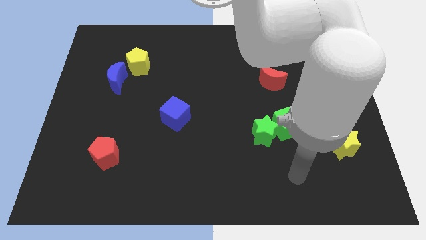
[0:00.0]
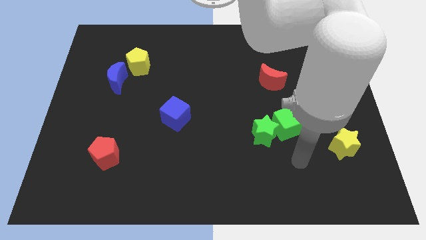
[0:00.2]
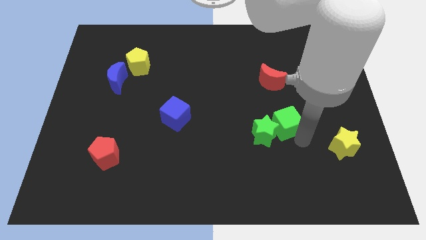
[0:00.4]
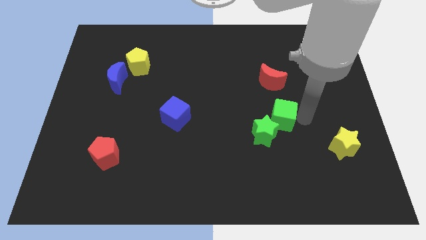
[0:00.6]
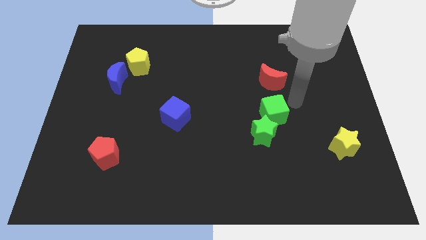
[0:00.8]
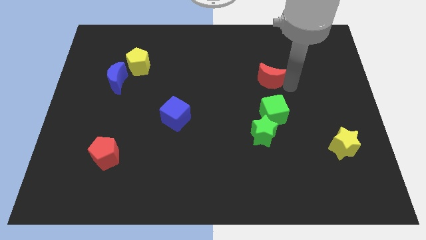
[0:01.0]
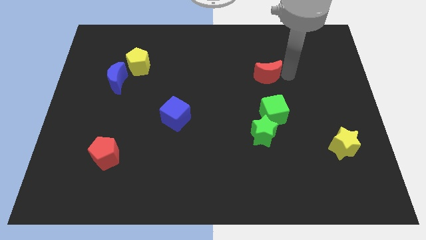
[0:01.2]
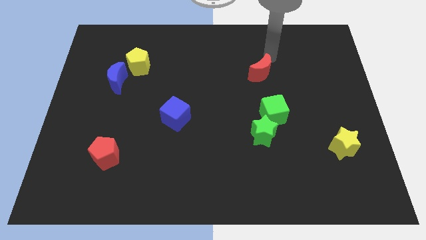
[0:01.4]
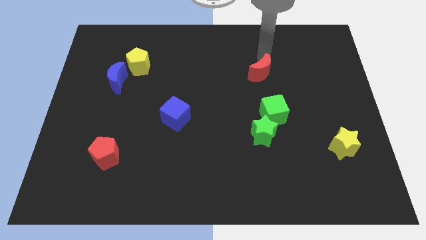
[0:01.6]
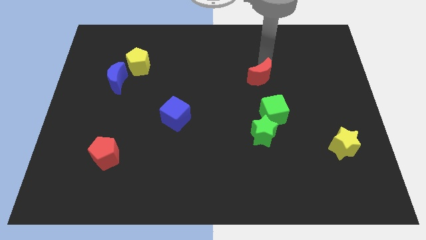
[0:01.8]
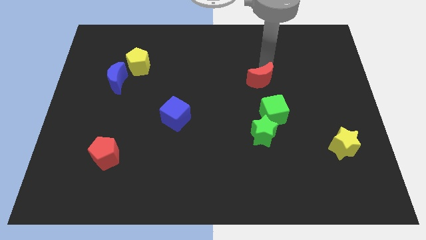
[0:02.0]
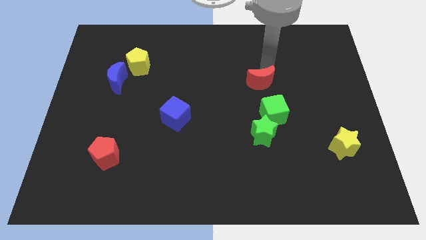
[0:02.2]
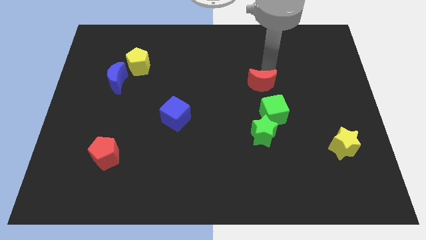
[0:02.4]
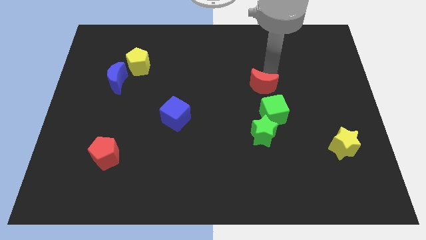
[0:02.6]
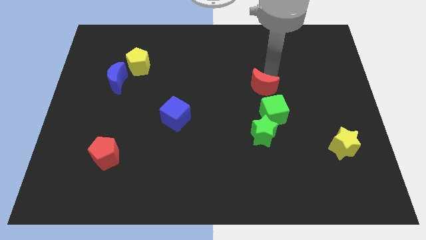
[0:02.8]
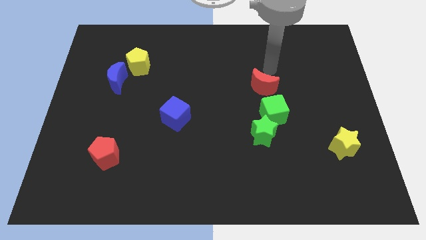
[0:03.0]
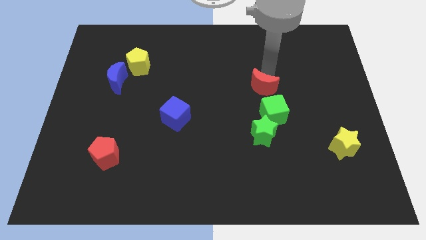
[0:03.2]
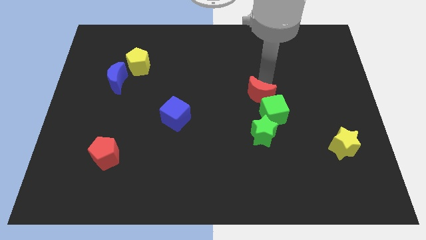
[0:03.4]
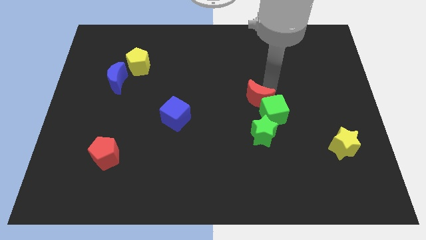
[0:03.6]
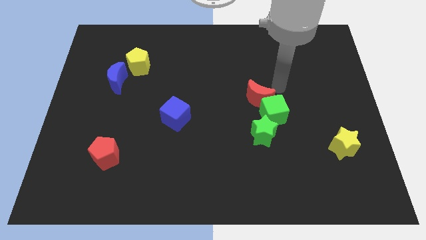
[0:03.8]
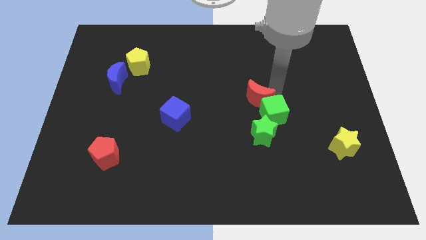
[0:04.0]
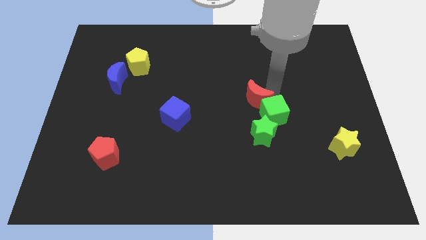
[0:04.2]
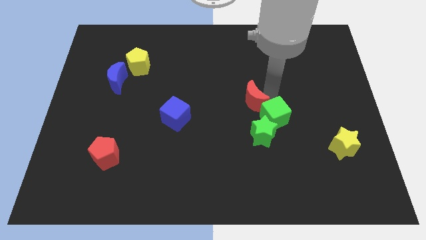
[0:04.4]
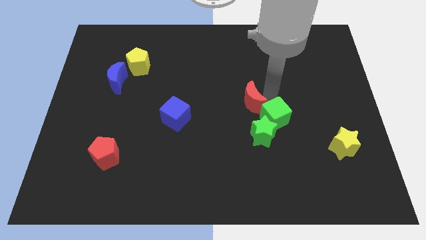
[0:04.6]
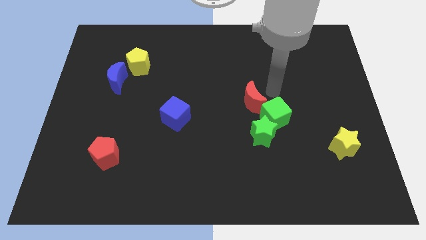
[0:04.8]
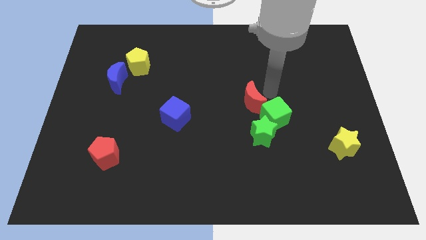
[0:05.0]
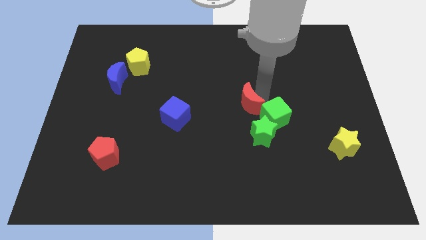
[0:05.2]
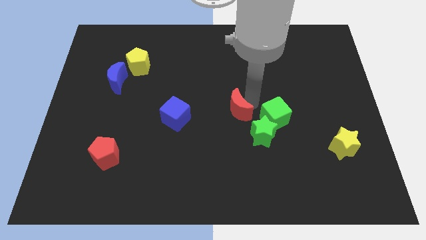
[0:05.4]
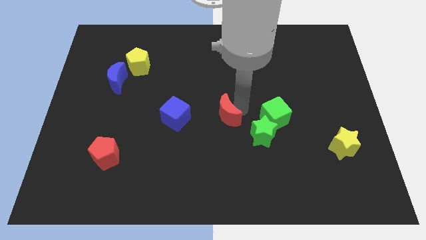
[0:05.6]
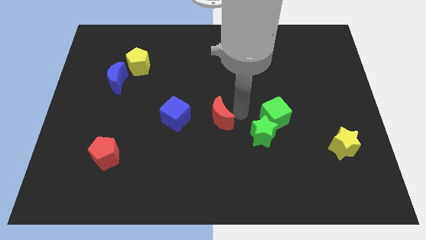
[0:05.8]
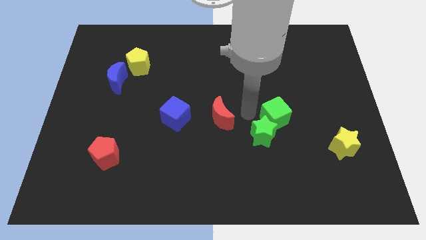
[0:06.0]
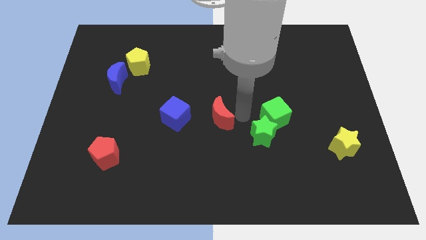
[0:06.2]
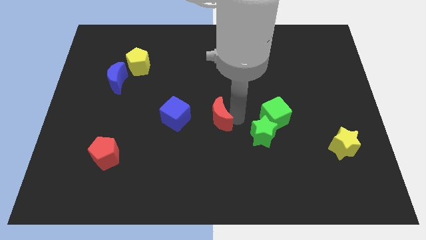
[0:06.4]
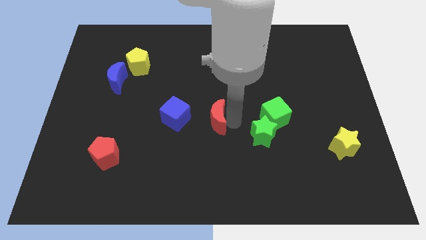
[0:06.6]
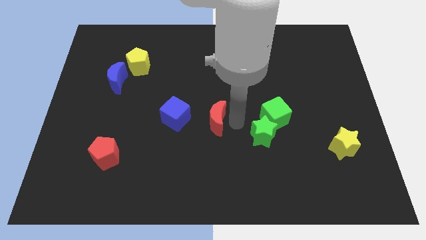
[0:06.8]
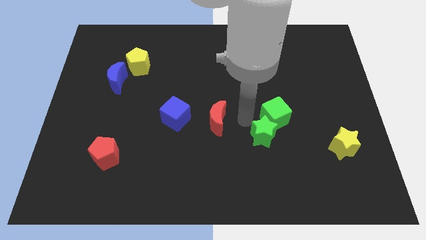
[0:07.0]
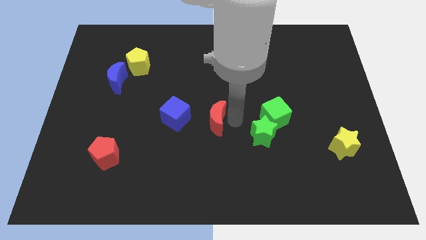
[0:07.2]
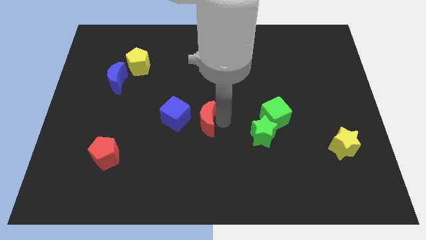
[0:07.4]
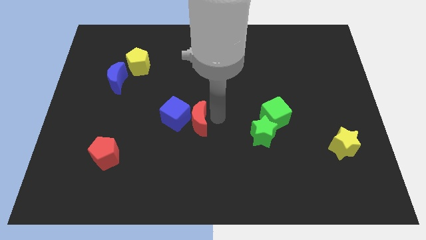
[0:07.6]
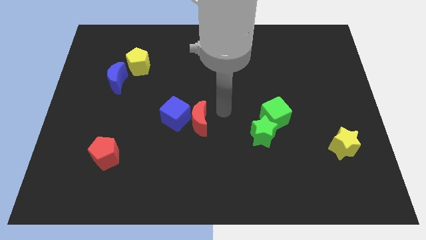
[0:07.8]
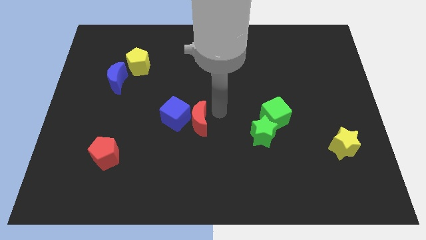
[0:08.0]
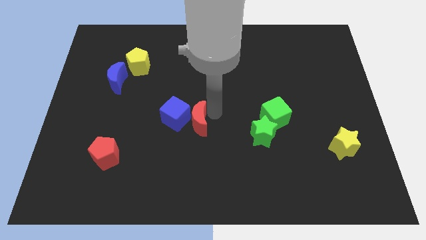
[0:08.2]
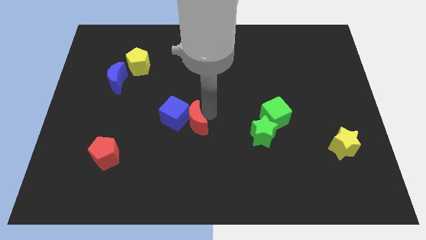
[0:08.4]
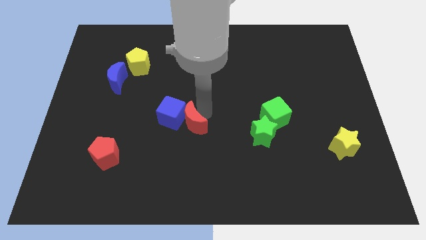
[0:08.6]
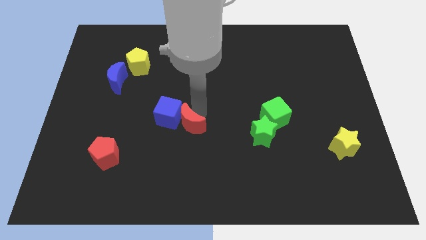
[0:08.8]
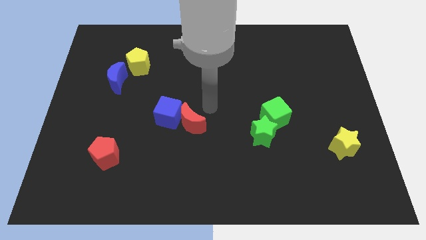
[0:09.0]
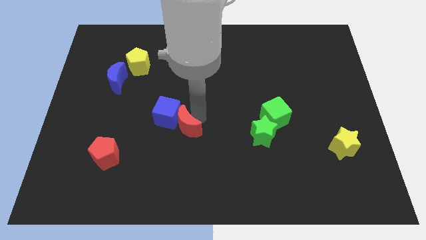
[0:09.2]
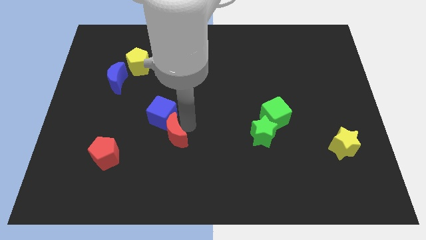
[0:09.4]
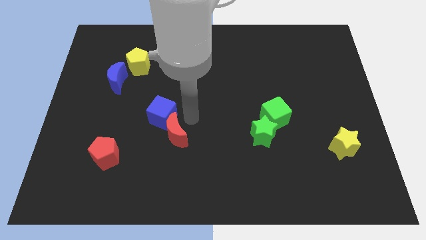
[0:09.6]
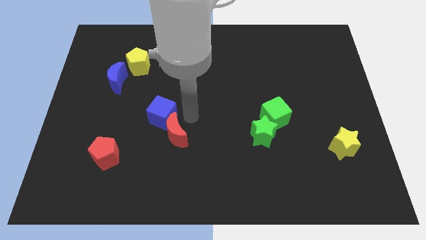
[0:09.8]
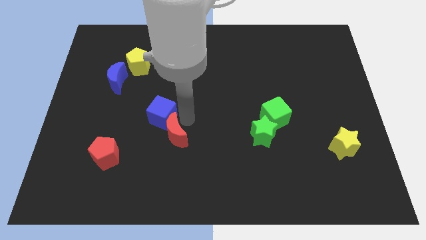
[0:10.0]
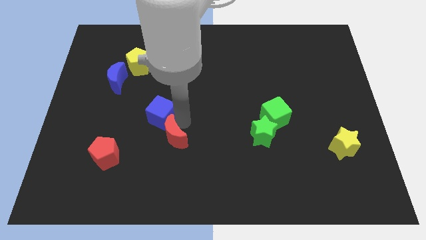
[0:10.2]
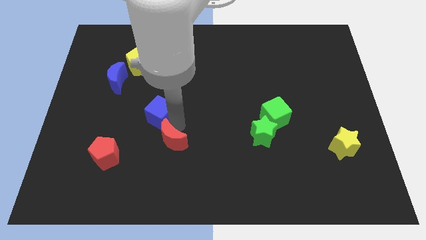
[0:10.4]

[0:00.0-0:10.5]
move the red moon to the right of the red pentagon

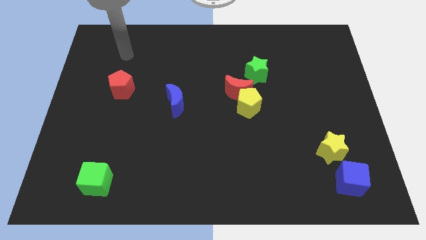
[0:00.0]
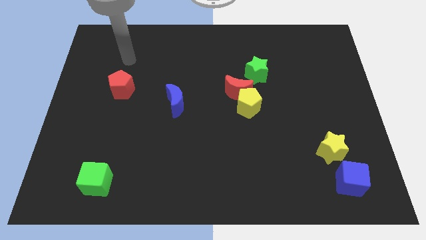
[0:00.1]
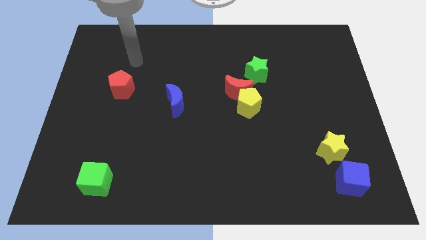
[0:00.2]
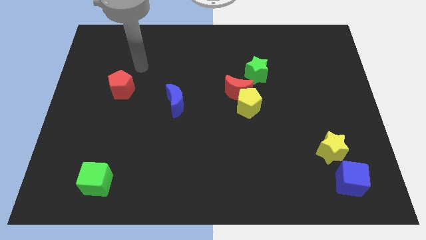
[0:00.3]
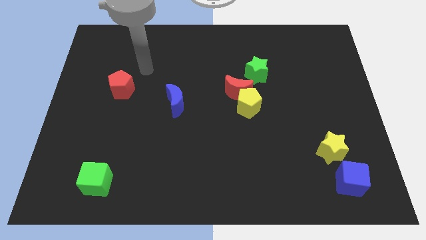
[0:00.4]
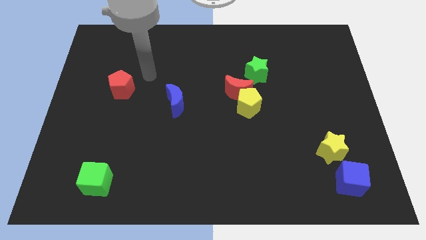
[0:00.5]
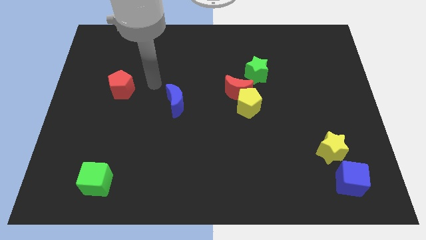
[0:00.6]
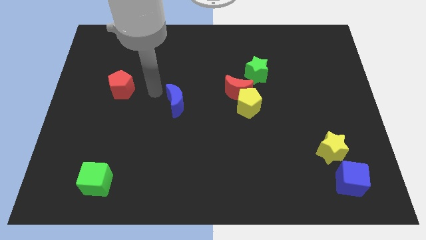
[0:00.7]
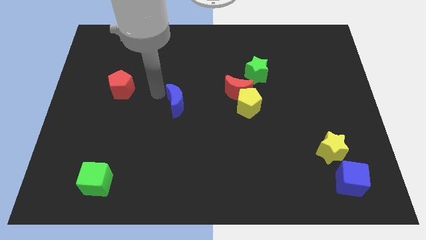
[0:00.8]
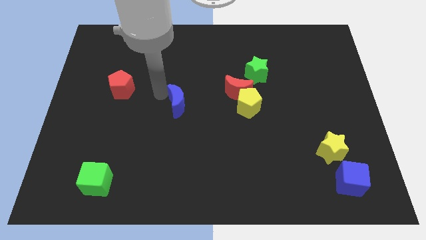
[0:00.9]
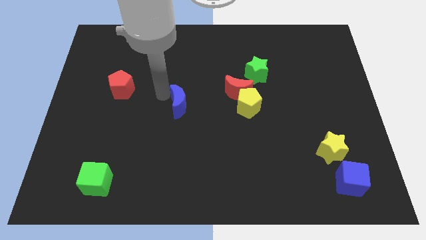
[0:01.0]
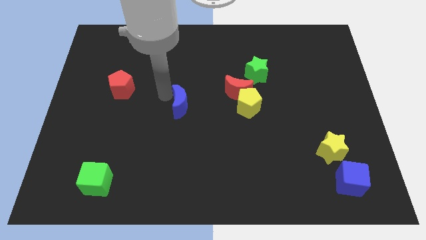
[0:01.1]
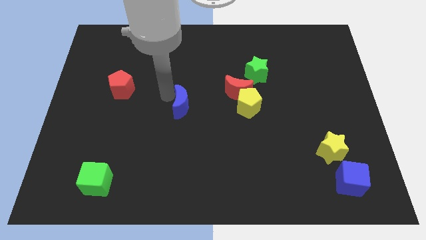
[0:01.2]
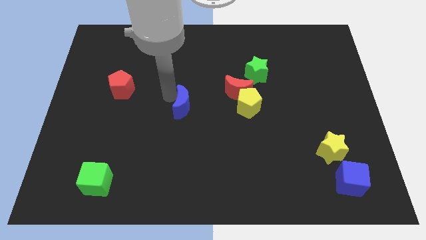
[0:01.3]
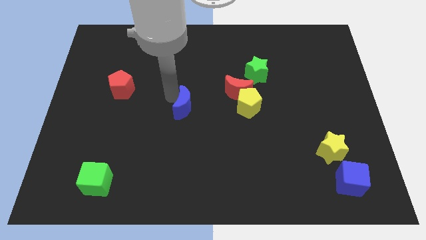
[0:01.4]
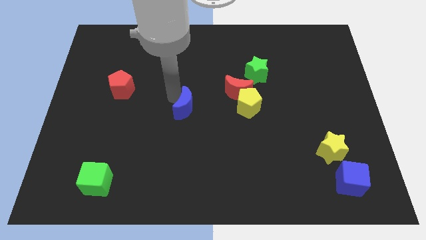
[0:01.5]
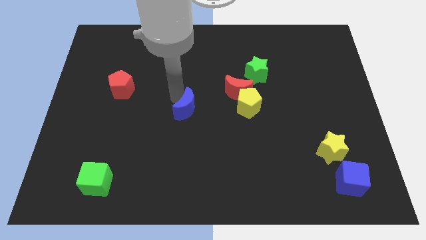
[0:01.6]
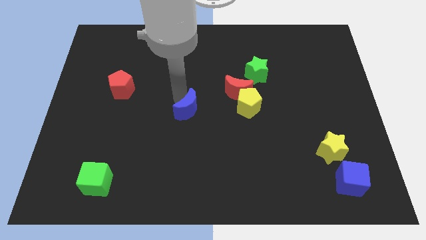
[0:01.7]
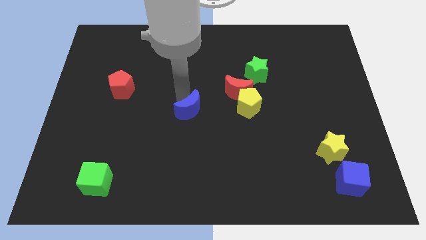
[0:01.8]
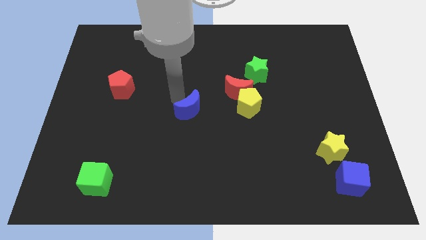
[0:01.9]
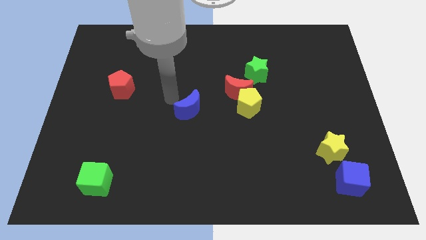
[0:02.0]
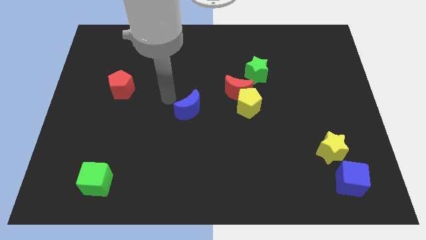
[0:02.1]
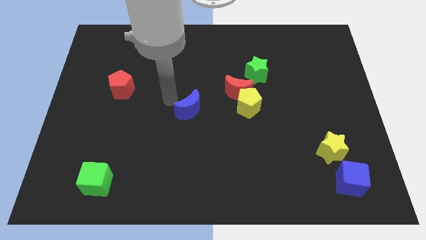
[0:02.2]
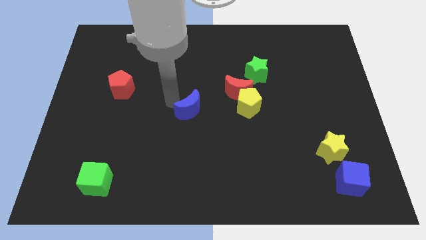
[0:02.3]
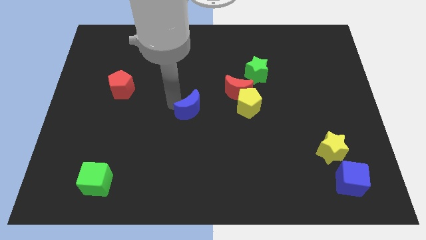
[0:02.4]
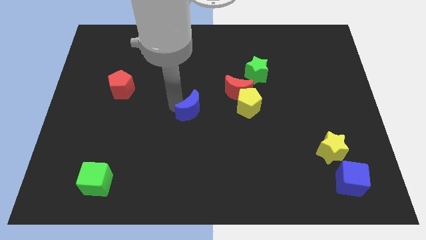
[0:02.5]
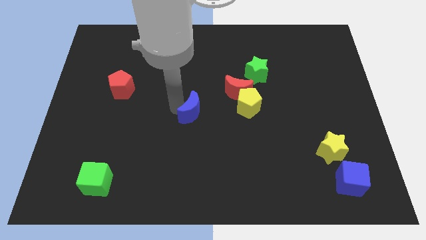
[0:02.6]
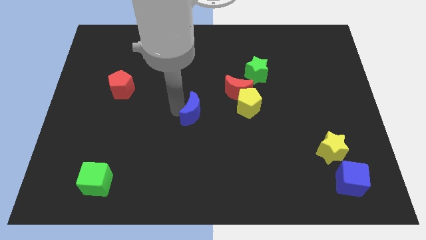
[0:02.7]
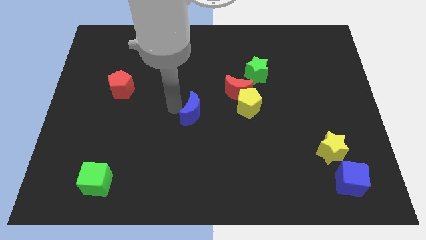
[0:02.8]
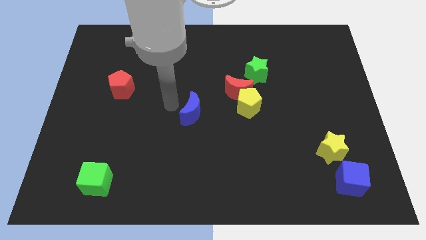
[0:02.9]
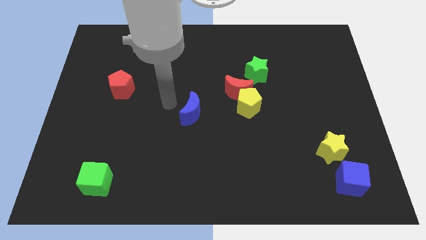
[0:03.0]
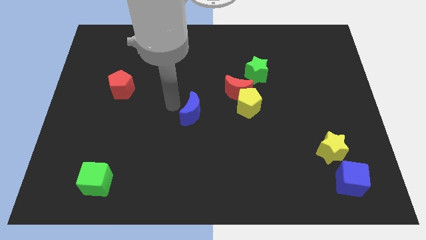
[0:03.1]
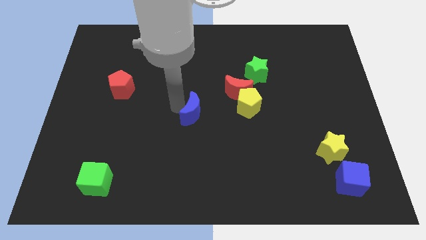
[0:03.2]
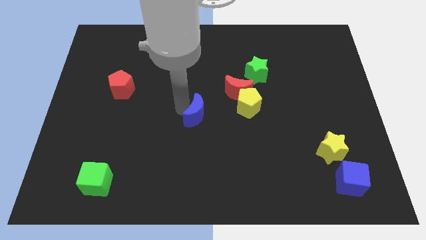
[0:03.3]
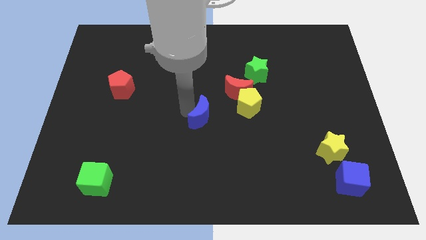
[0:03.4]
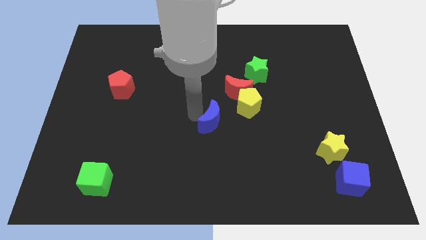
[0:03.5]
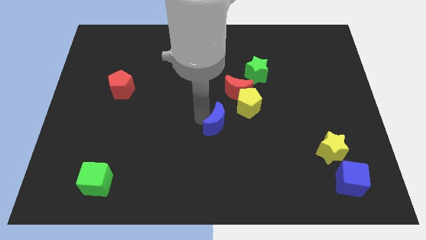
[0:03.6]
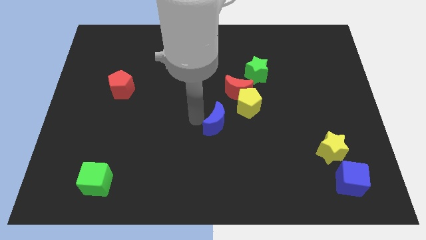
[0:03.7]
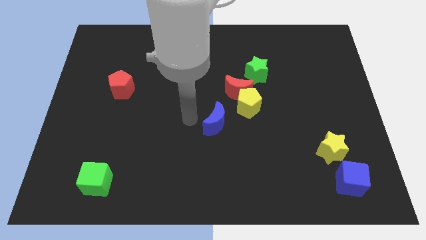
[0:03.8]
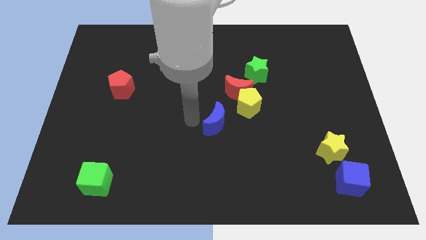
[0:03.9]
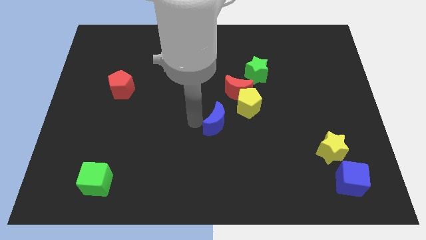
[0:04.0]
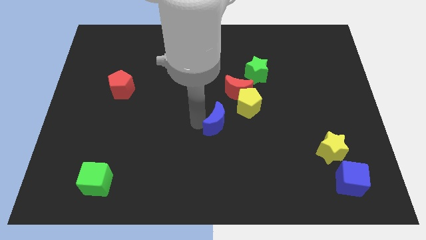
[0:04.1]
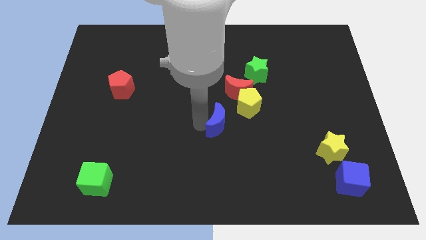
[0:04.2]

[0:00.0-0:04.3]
slide the blue moon to the bottom side of the red moon
